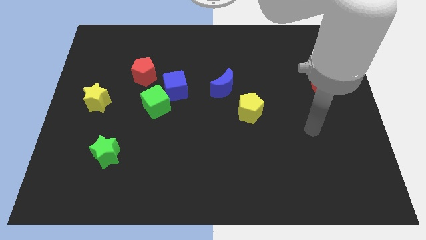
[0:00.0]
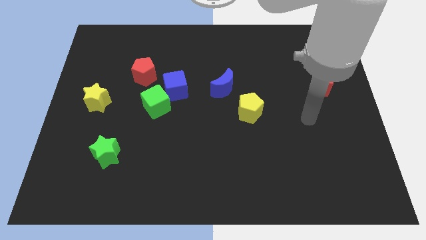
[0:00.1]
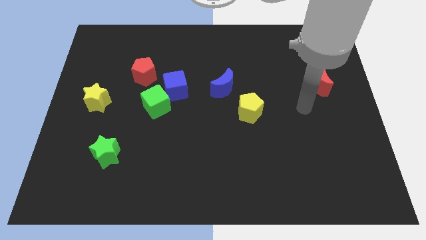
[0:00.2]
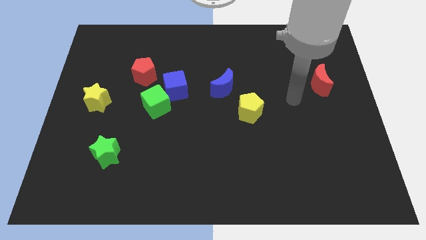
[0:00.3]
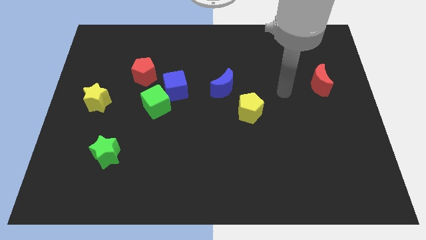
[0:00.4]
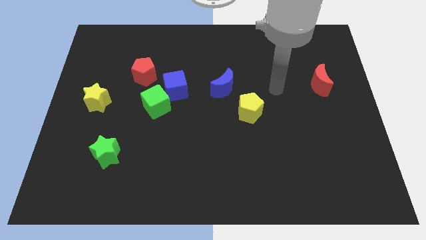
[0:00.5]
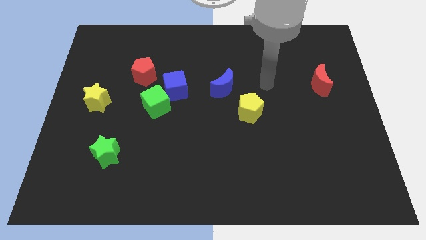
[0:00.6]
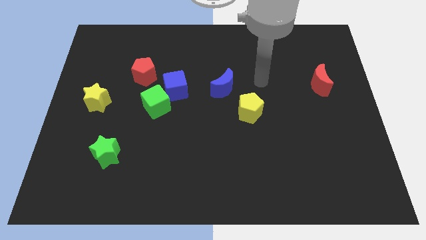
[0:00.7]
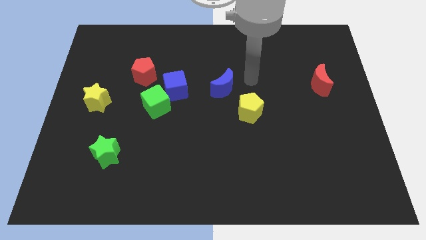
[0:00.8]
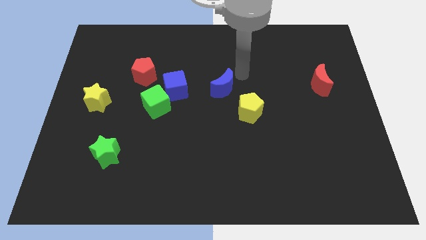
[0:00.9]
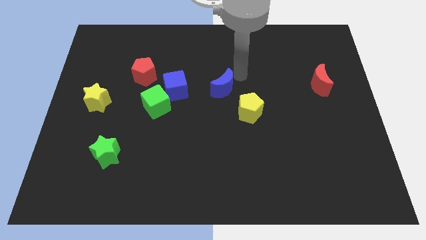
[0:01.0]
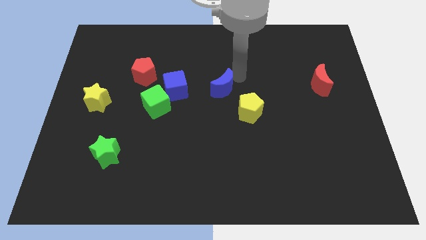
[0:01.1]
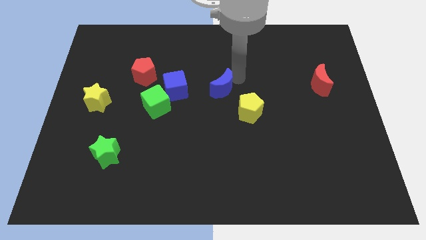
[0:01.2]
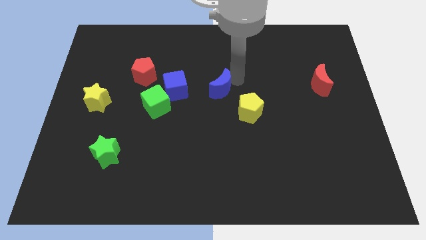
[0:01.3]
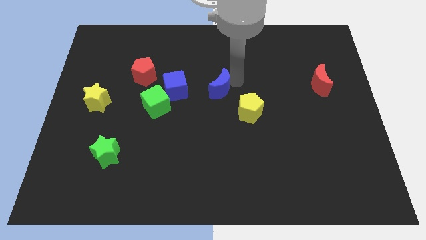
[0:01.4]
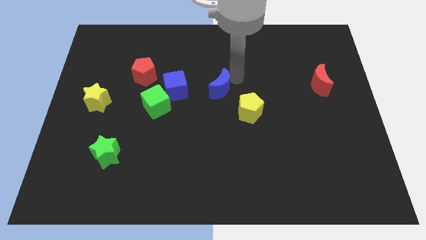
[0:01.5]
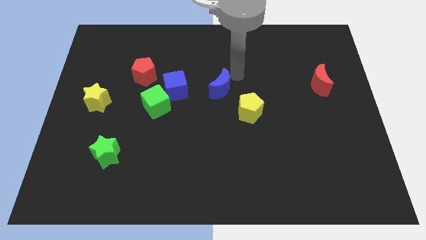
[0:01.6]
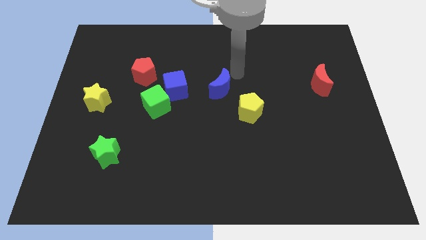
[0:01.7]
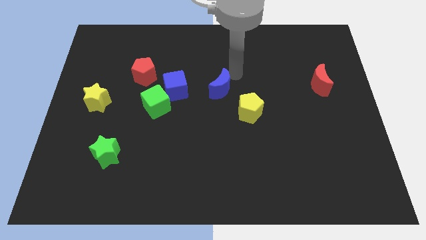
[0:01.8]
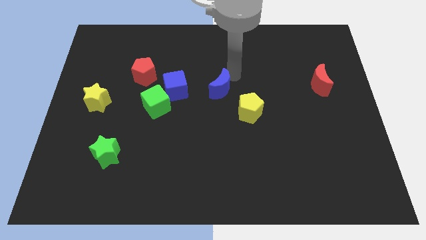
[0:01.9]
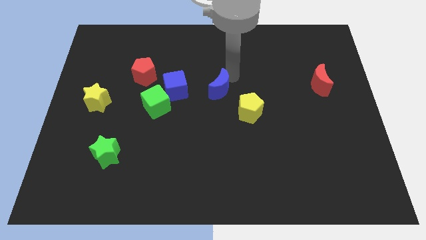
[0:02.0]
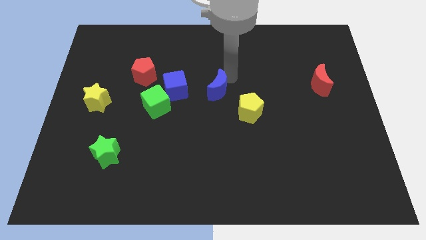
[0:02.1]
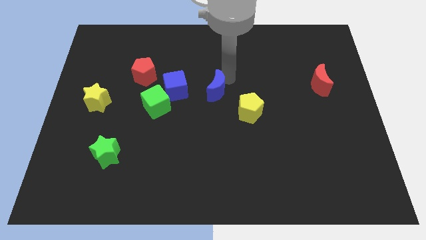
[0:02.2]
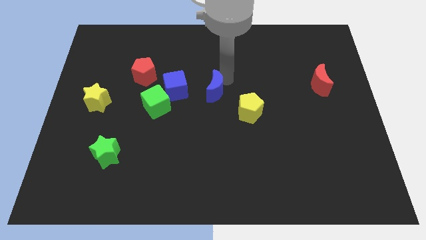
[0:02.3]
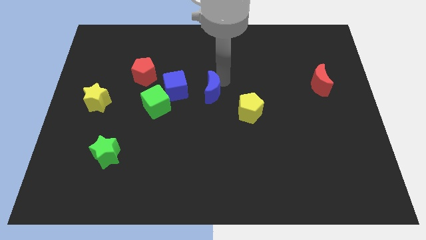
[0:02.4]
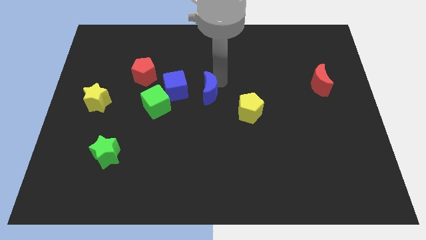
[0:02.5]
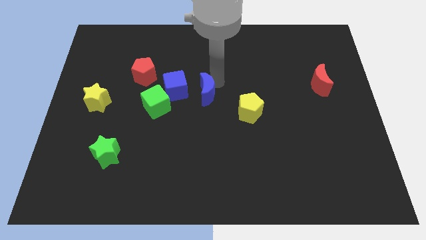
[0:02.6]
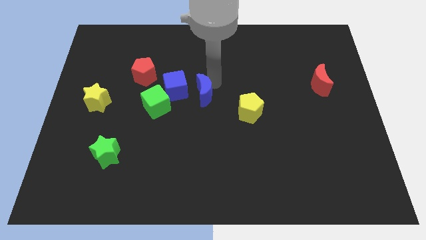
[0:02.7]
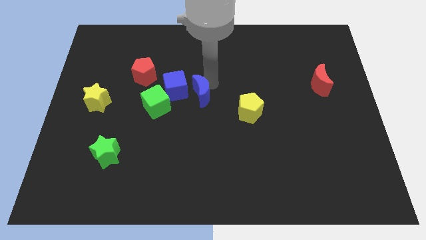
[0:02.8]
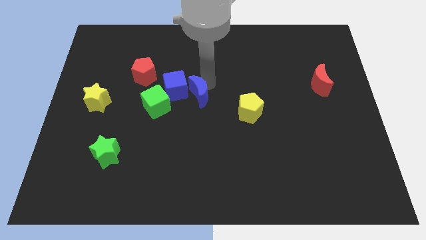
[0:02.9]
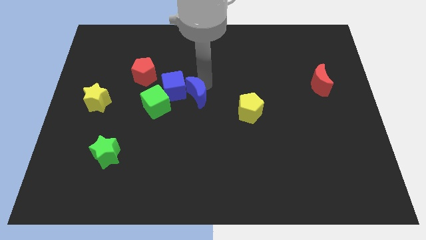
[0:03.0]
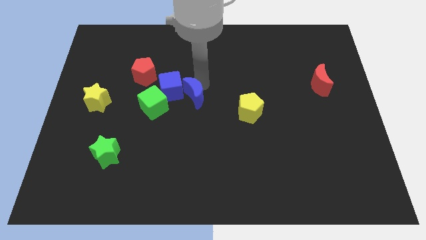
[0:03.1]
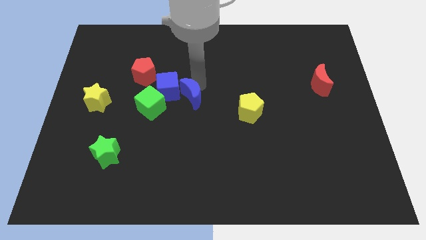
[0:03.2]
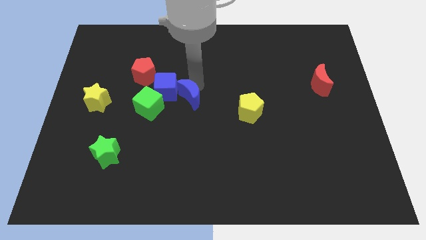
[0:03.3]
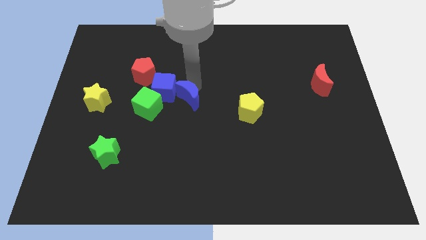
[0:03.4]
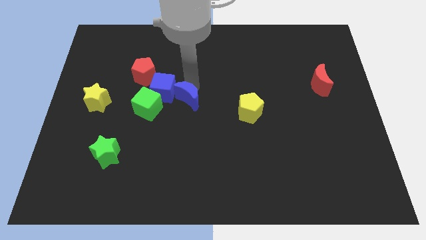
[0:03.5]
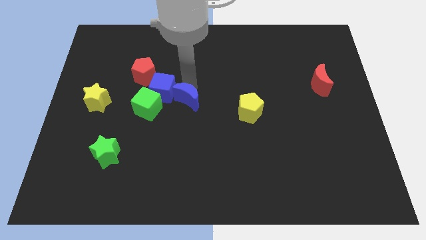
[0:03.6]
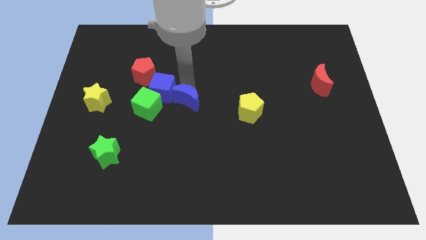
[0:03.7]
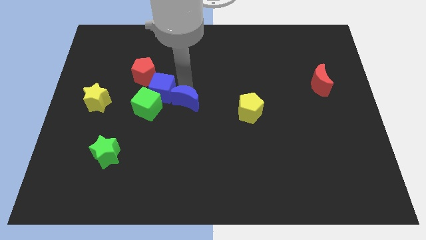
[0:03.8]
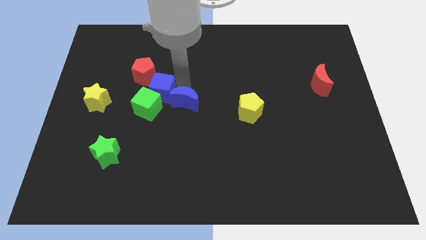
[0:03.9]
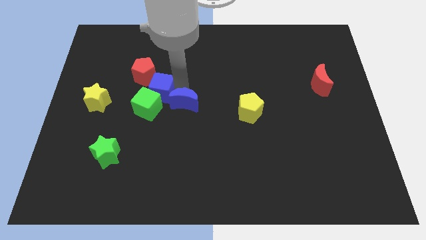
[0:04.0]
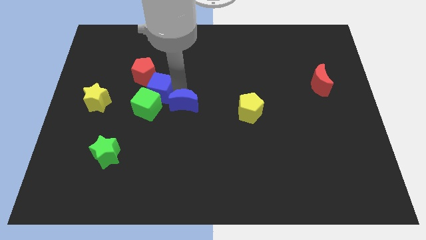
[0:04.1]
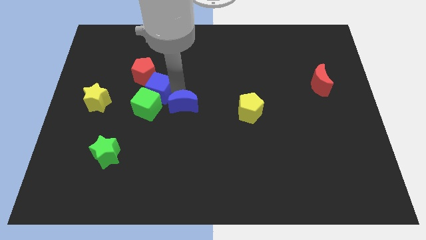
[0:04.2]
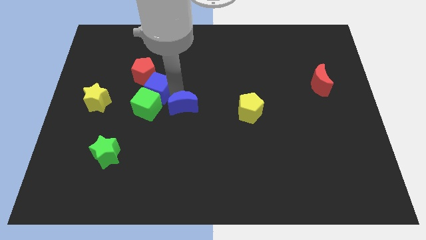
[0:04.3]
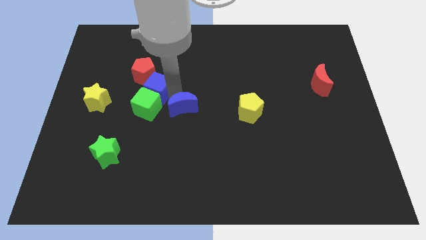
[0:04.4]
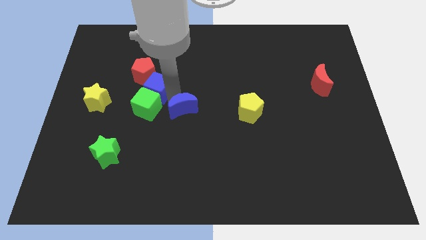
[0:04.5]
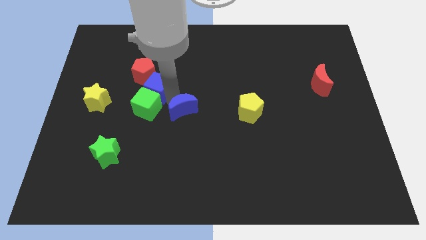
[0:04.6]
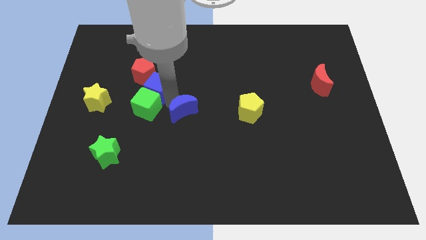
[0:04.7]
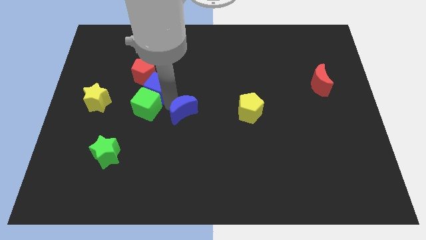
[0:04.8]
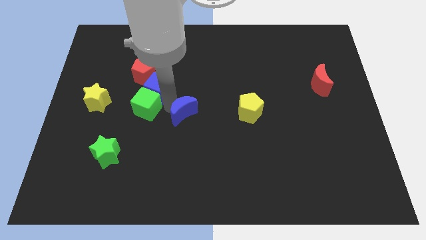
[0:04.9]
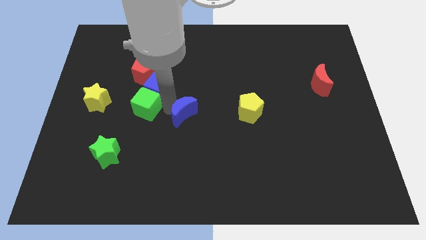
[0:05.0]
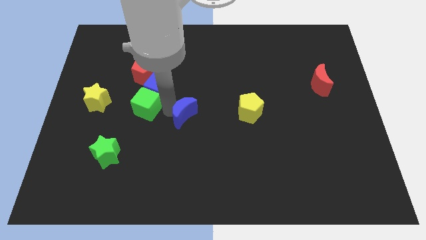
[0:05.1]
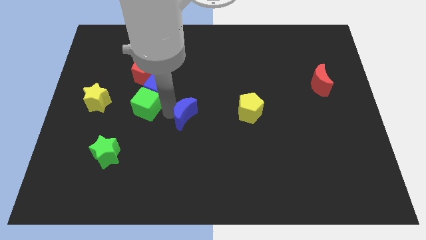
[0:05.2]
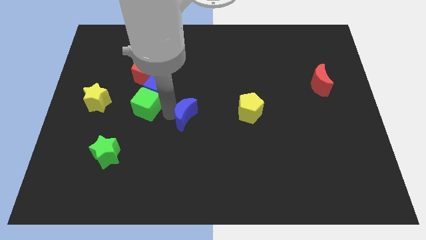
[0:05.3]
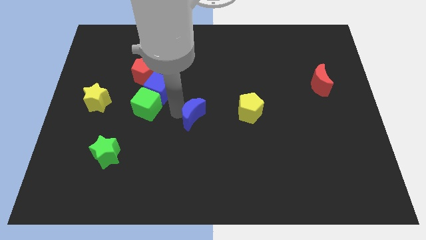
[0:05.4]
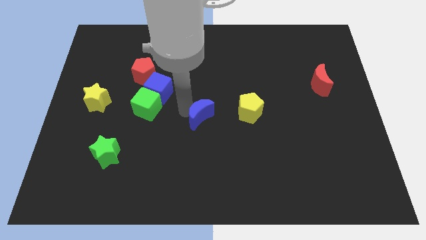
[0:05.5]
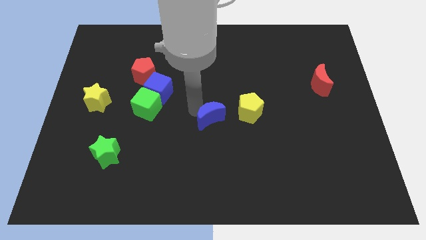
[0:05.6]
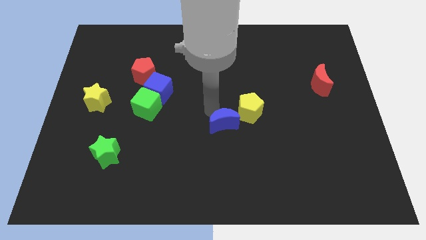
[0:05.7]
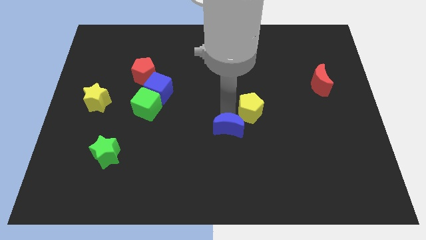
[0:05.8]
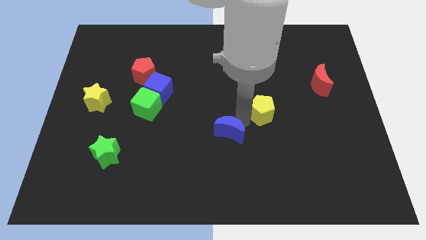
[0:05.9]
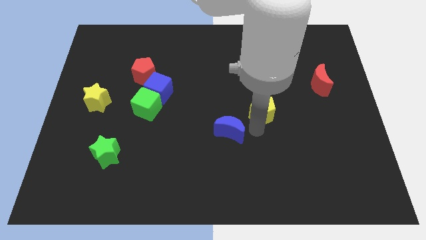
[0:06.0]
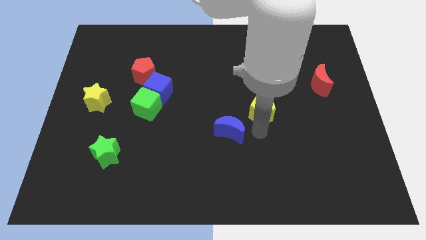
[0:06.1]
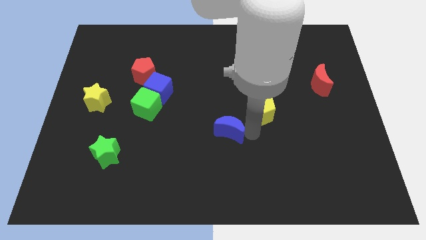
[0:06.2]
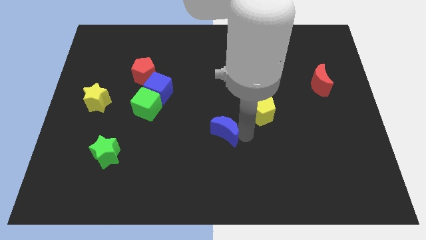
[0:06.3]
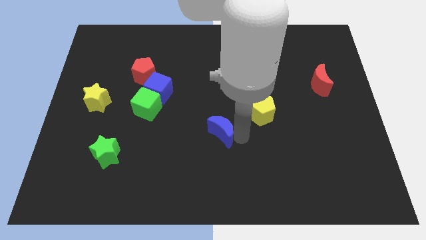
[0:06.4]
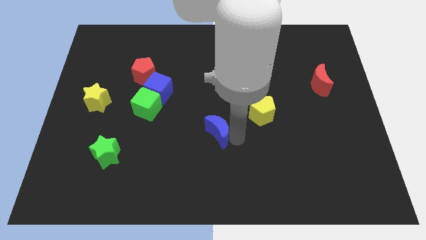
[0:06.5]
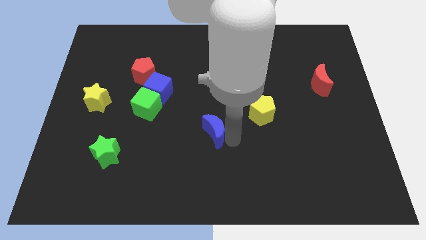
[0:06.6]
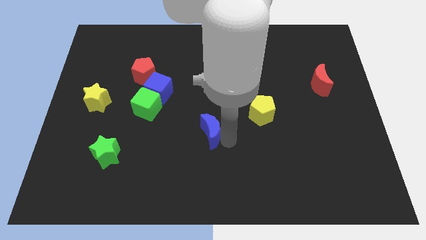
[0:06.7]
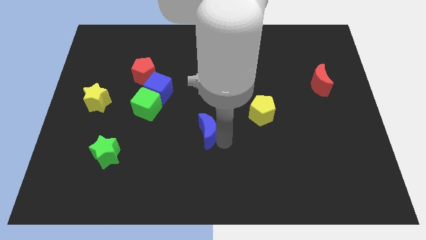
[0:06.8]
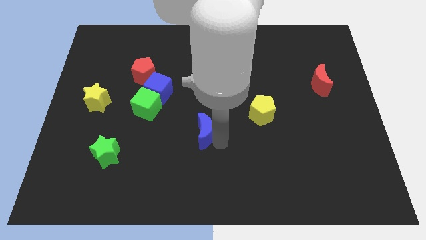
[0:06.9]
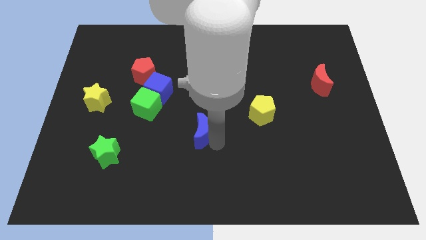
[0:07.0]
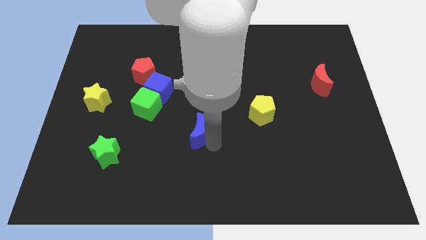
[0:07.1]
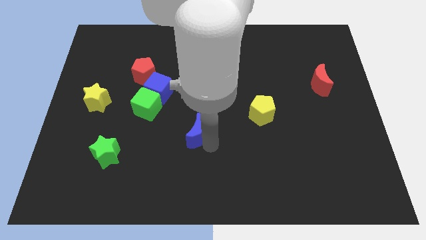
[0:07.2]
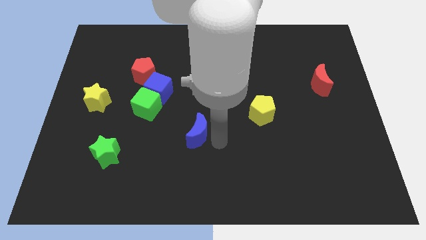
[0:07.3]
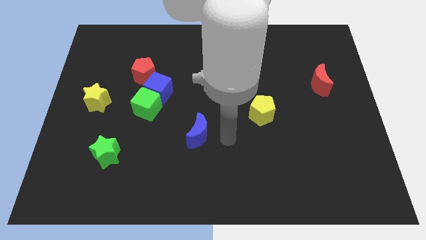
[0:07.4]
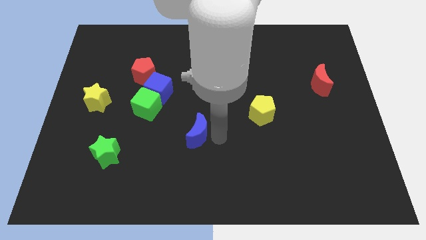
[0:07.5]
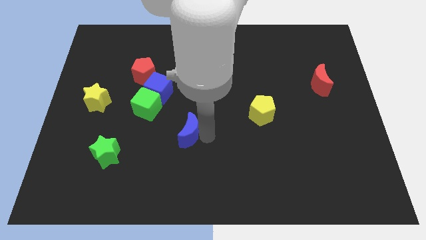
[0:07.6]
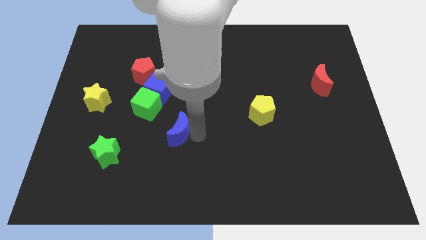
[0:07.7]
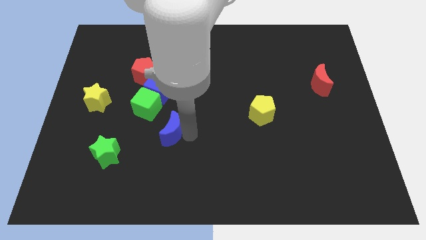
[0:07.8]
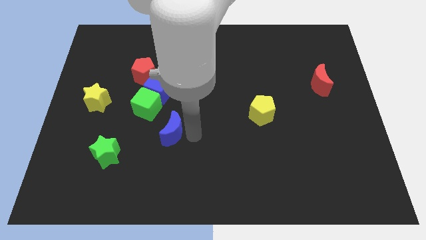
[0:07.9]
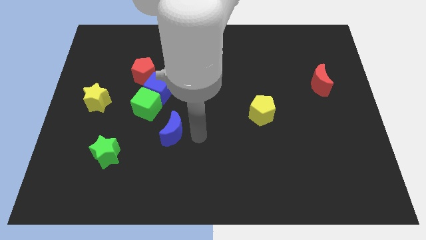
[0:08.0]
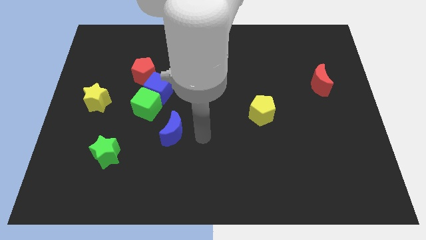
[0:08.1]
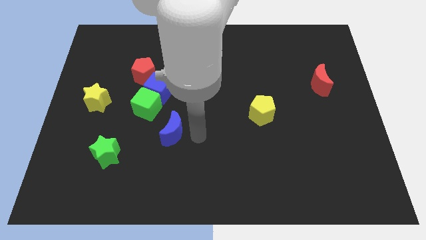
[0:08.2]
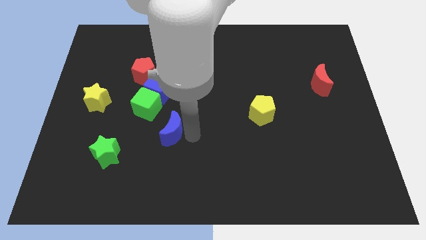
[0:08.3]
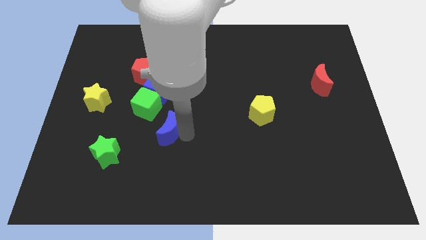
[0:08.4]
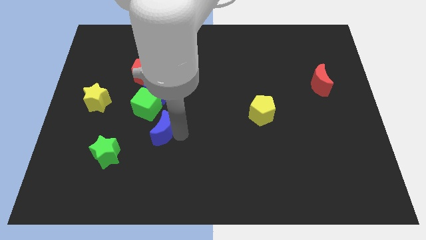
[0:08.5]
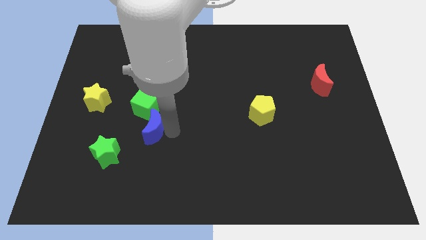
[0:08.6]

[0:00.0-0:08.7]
move the blue moon downwards and left
